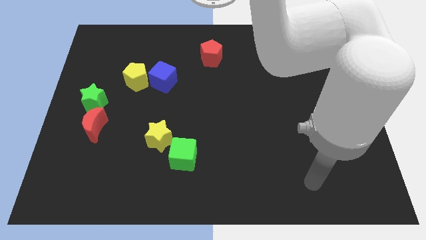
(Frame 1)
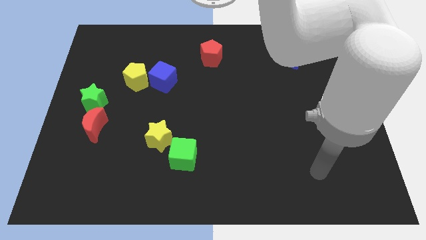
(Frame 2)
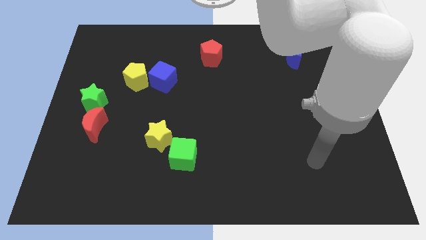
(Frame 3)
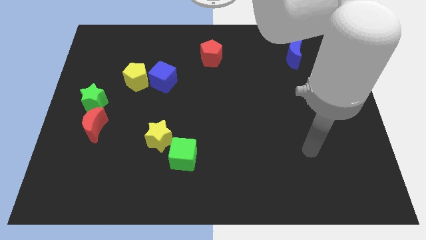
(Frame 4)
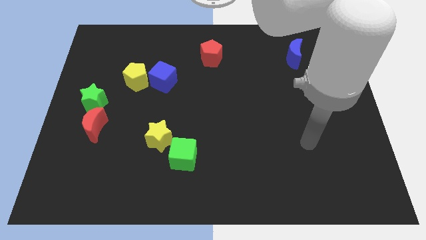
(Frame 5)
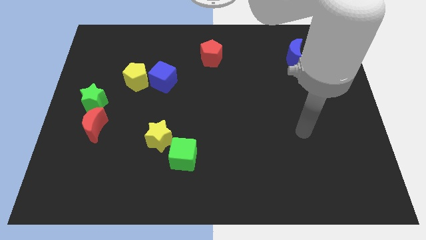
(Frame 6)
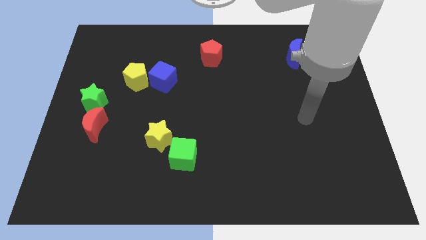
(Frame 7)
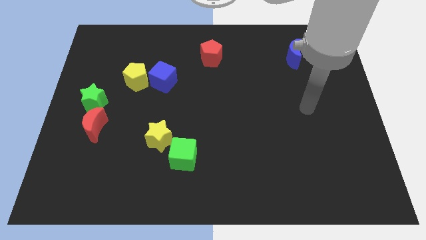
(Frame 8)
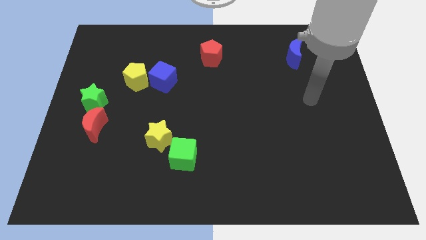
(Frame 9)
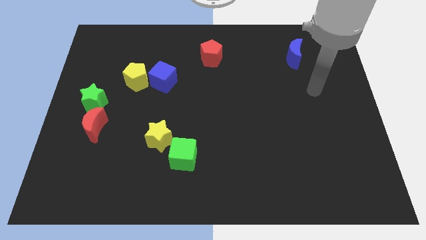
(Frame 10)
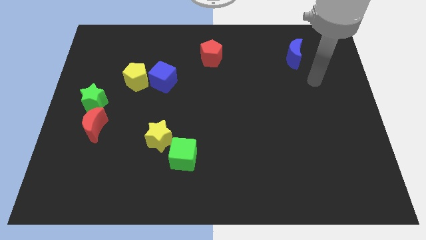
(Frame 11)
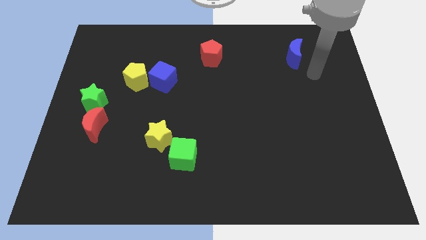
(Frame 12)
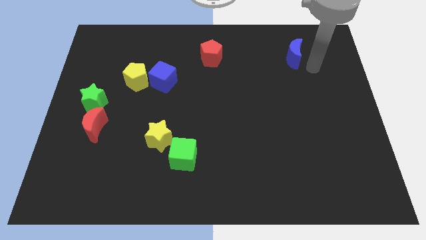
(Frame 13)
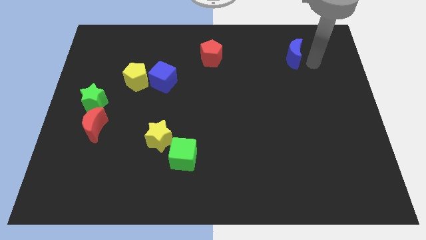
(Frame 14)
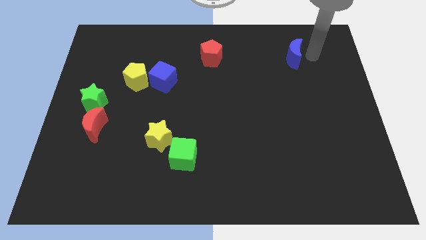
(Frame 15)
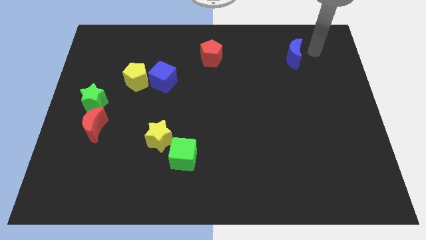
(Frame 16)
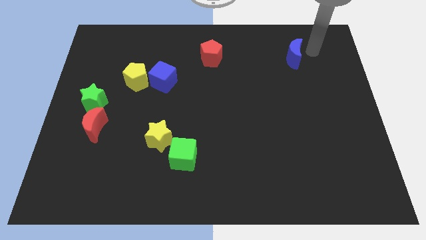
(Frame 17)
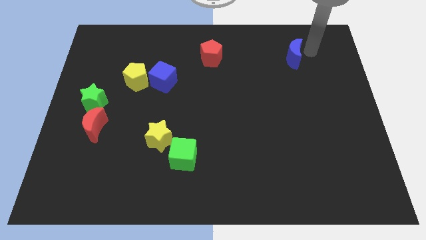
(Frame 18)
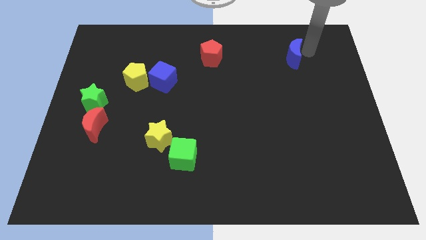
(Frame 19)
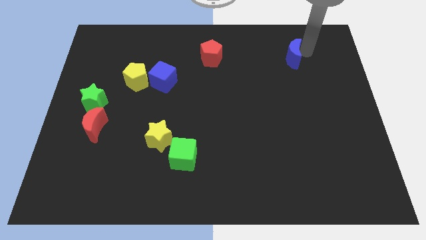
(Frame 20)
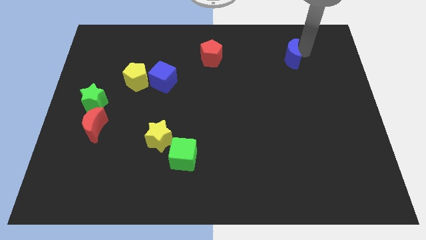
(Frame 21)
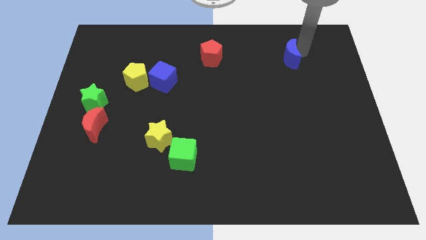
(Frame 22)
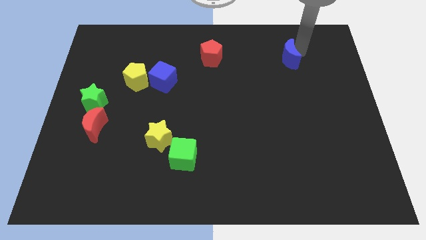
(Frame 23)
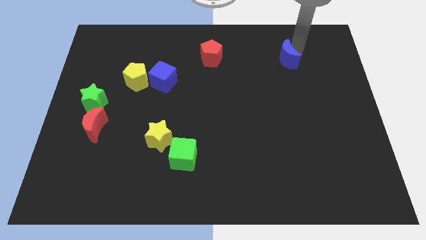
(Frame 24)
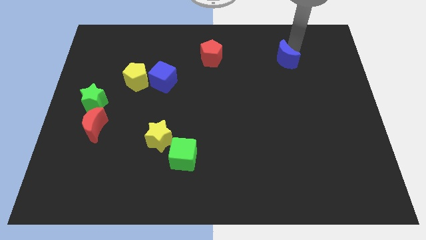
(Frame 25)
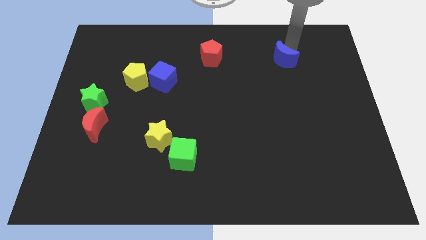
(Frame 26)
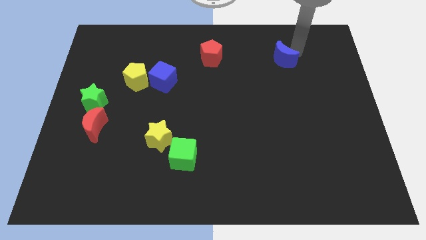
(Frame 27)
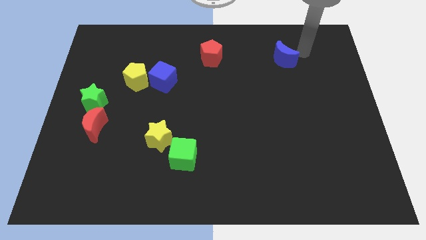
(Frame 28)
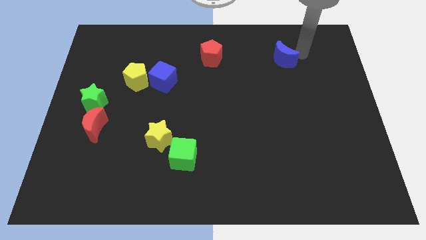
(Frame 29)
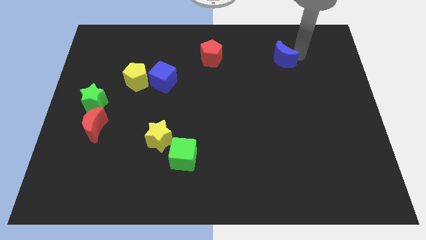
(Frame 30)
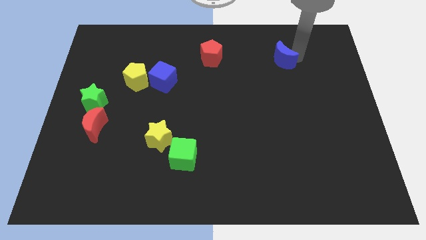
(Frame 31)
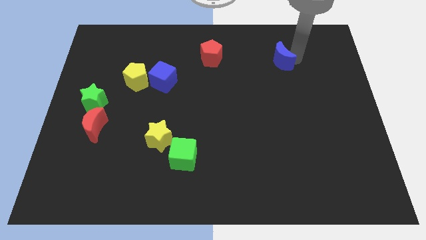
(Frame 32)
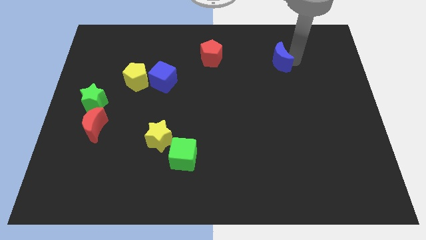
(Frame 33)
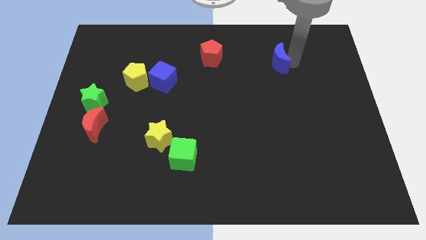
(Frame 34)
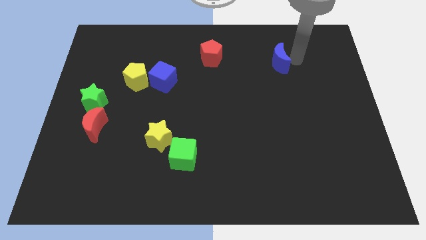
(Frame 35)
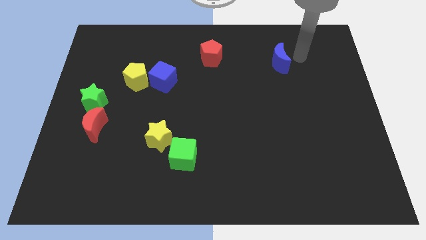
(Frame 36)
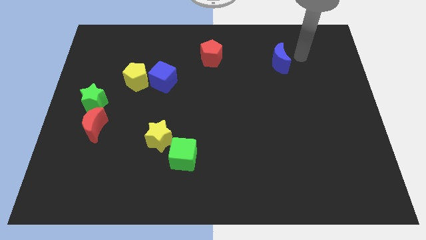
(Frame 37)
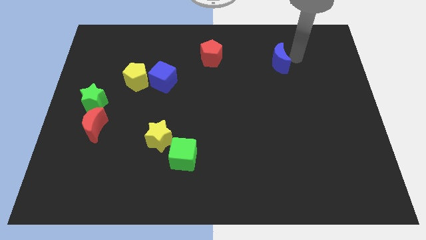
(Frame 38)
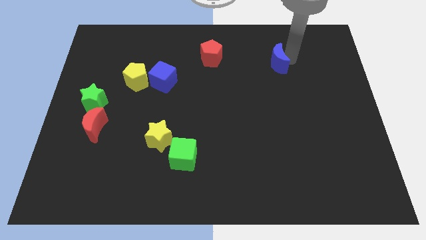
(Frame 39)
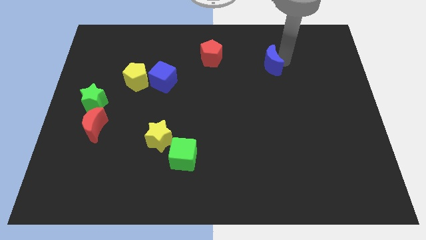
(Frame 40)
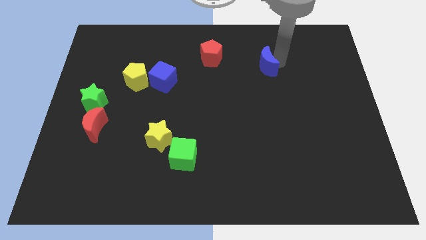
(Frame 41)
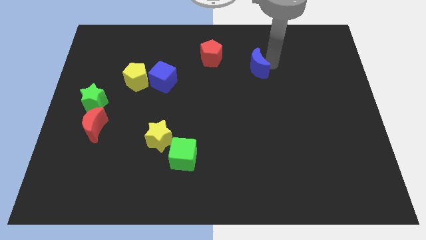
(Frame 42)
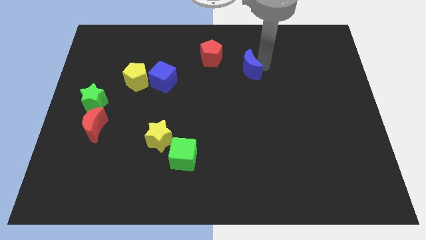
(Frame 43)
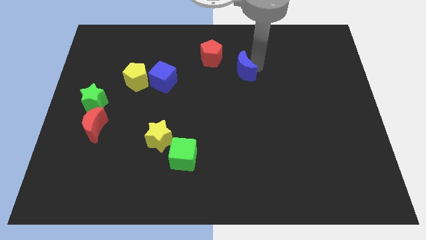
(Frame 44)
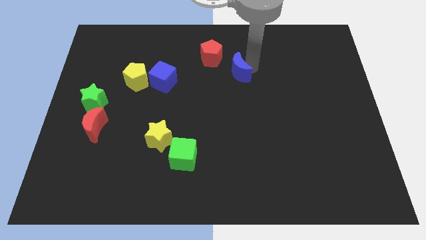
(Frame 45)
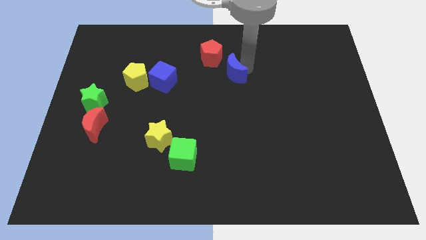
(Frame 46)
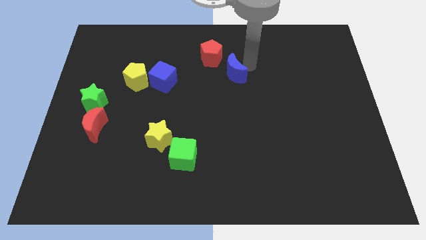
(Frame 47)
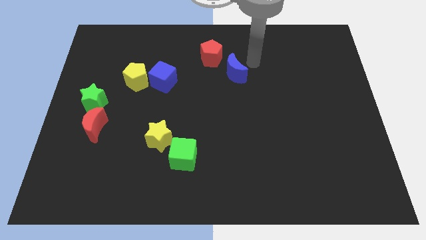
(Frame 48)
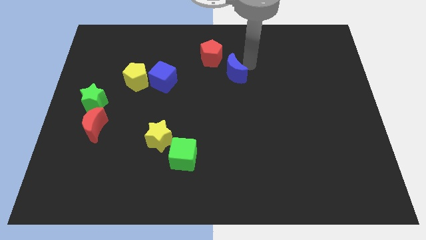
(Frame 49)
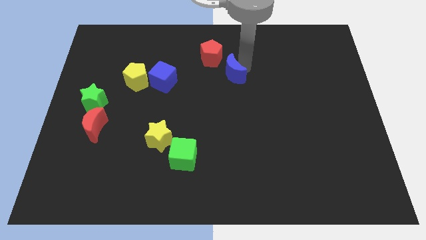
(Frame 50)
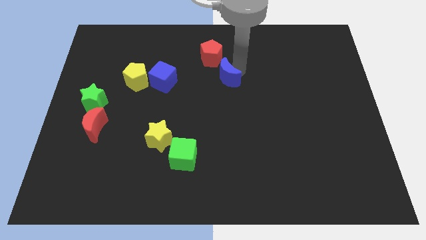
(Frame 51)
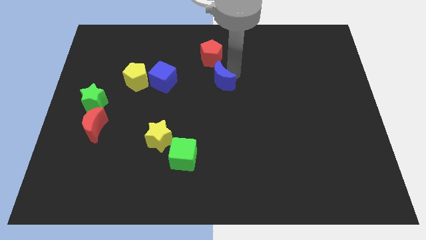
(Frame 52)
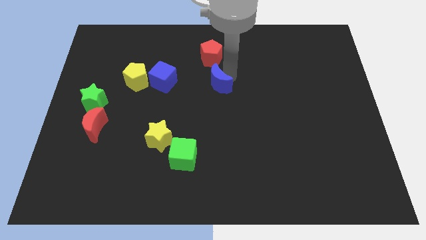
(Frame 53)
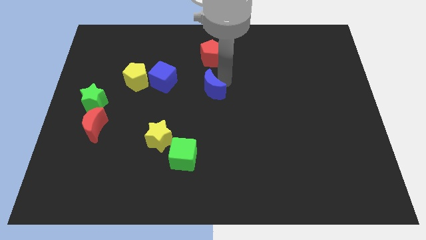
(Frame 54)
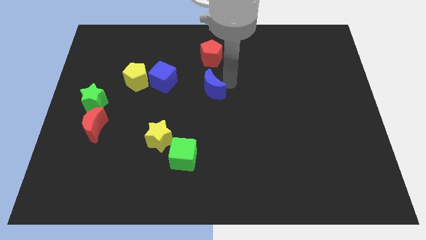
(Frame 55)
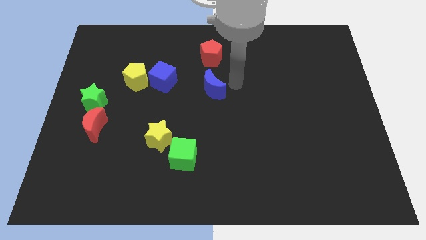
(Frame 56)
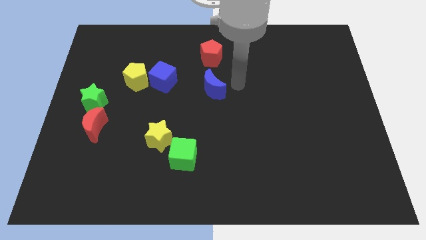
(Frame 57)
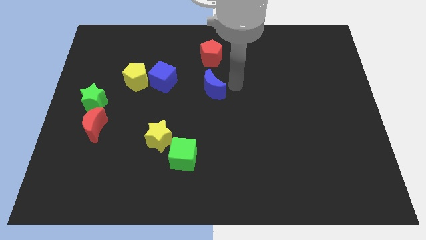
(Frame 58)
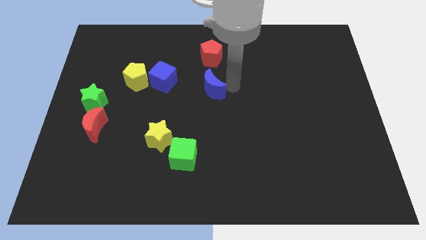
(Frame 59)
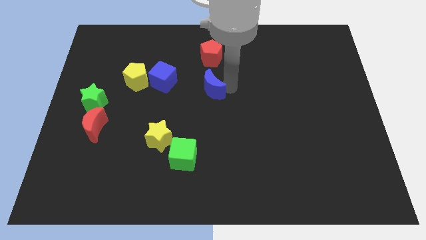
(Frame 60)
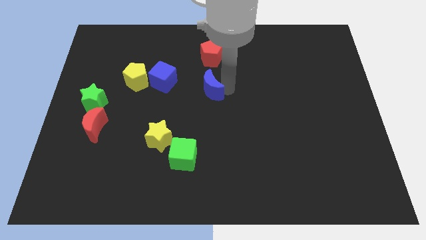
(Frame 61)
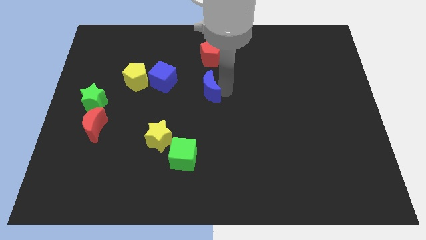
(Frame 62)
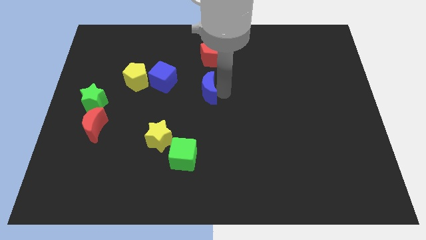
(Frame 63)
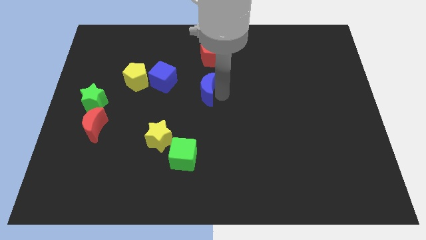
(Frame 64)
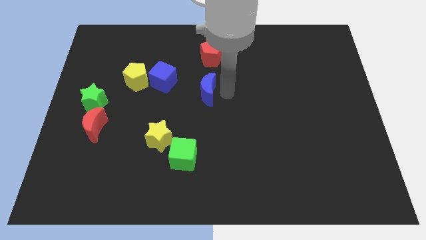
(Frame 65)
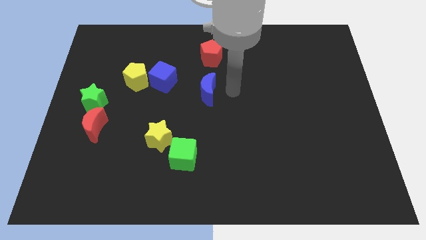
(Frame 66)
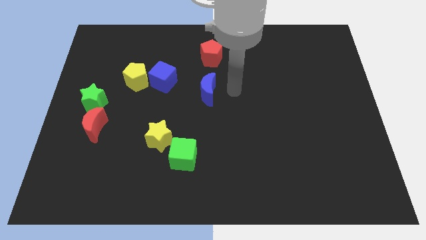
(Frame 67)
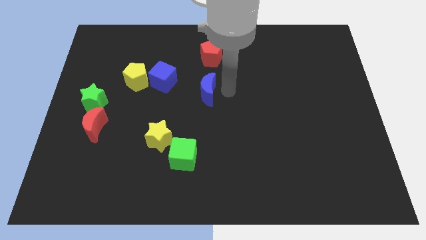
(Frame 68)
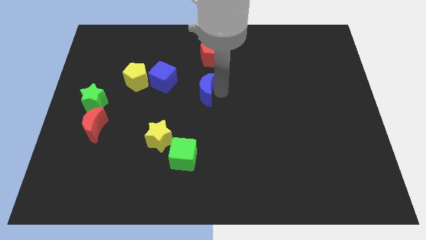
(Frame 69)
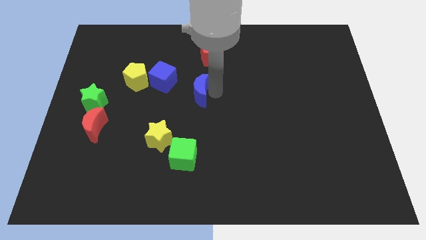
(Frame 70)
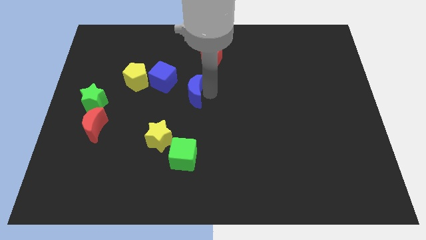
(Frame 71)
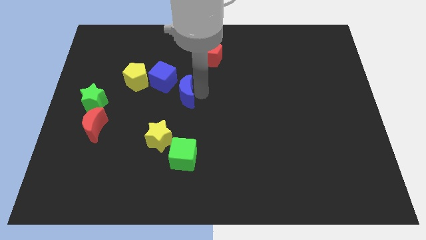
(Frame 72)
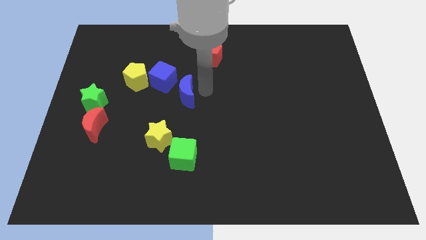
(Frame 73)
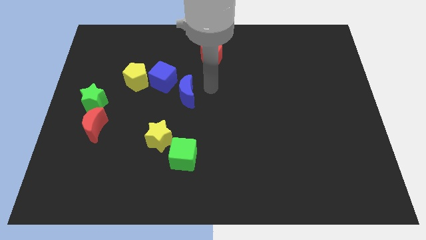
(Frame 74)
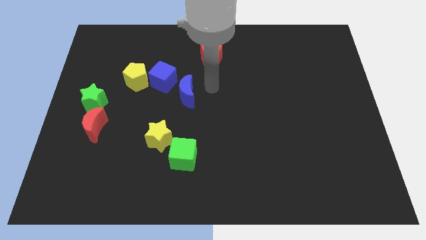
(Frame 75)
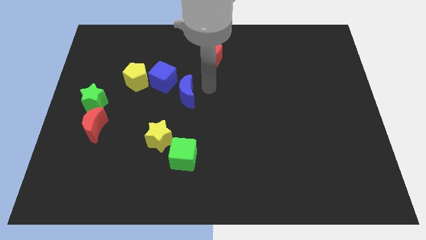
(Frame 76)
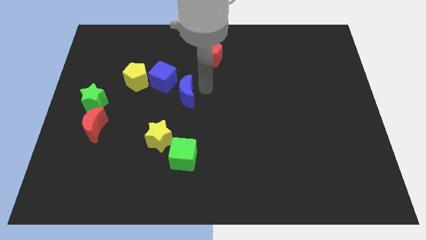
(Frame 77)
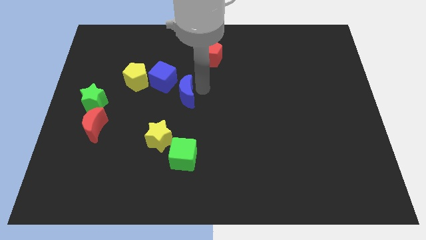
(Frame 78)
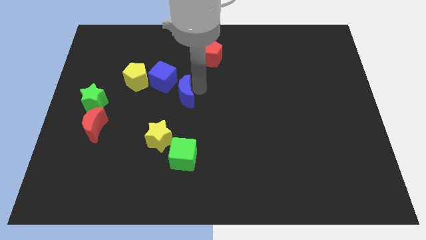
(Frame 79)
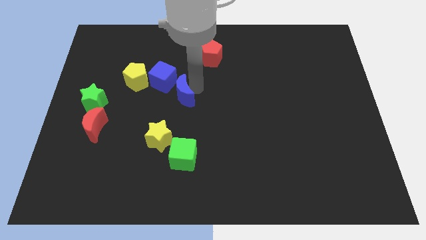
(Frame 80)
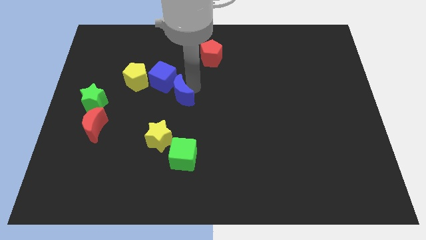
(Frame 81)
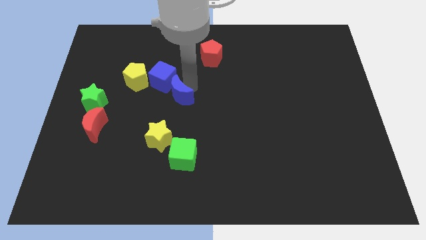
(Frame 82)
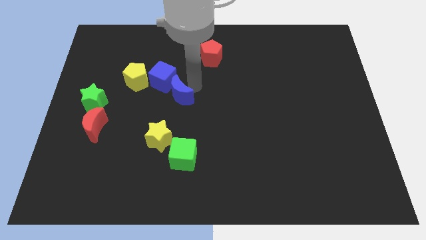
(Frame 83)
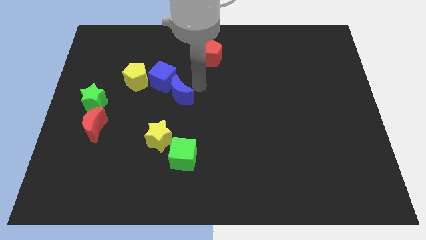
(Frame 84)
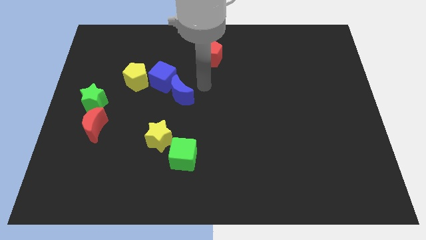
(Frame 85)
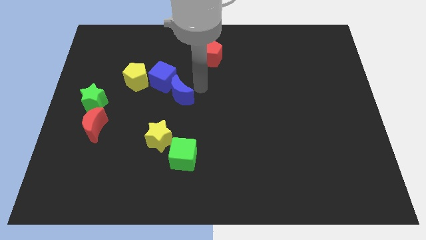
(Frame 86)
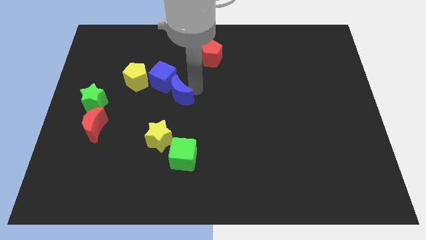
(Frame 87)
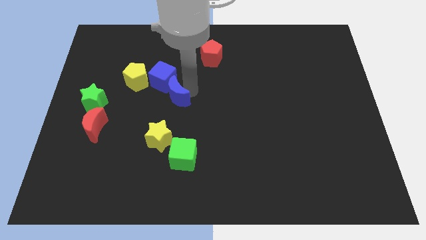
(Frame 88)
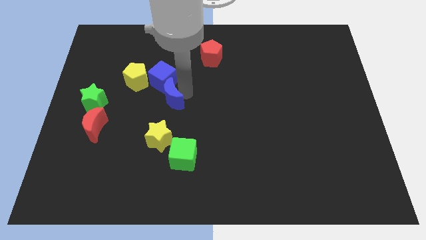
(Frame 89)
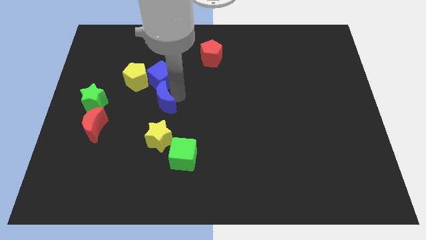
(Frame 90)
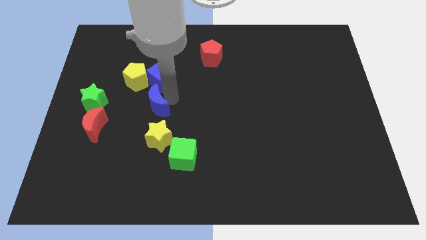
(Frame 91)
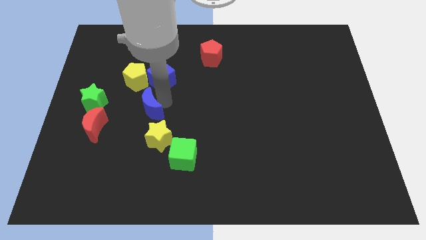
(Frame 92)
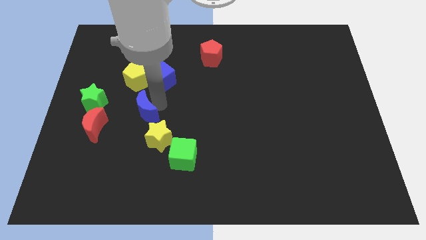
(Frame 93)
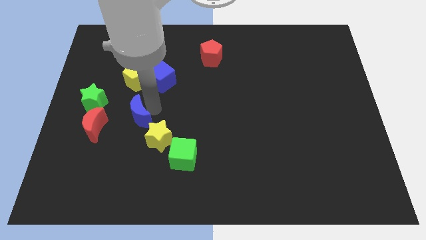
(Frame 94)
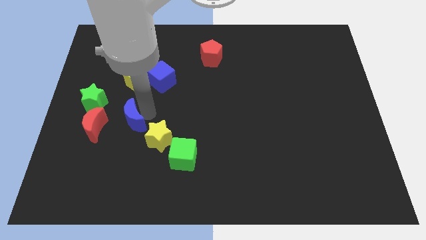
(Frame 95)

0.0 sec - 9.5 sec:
put the blue moon diagonally down and to the right of the green star
